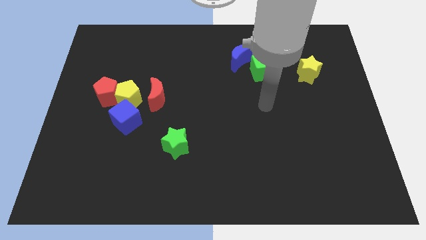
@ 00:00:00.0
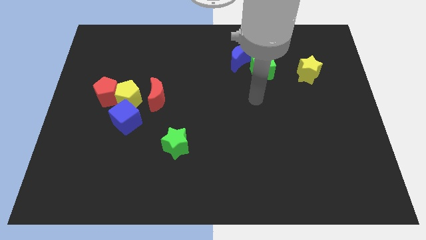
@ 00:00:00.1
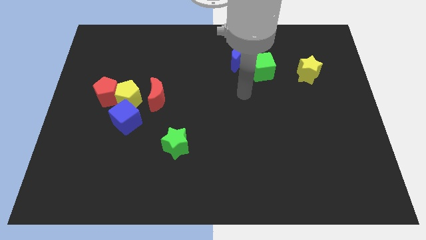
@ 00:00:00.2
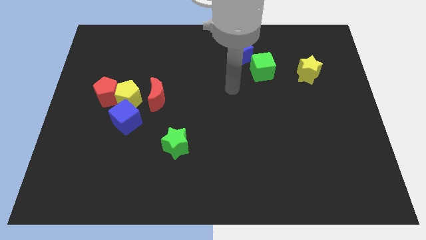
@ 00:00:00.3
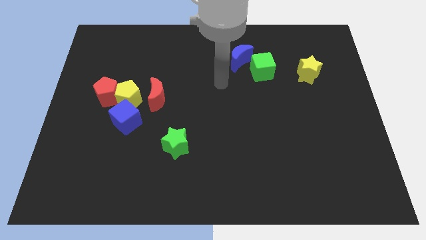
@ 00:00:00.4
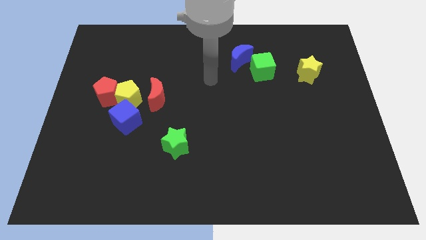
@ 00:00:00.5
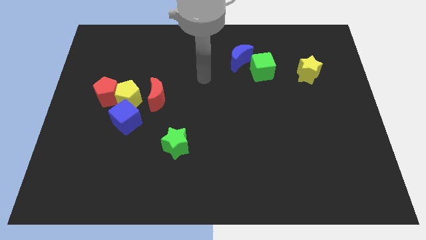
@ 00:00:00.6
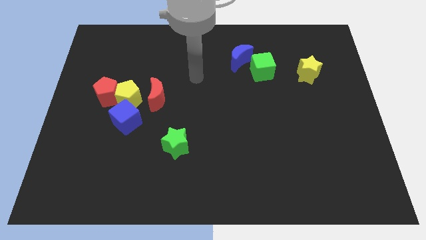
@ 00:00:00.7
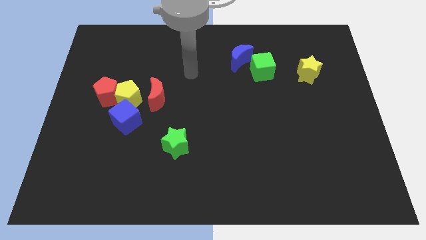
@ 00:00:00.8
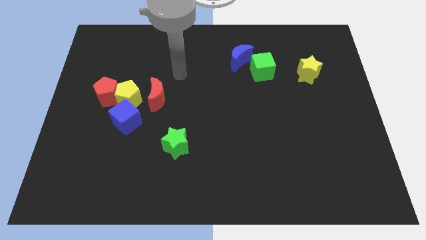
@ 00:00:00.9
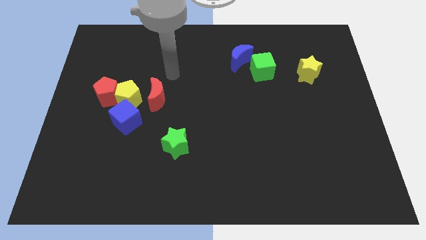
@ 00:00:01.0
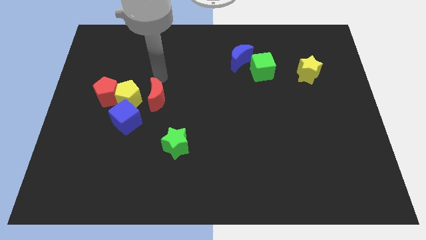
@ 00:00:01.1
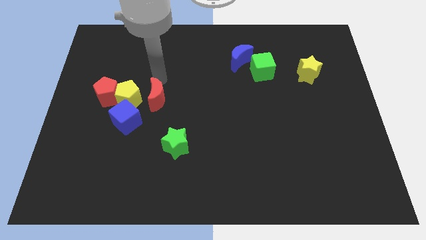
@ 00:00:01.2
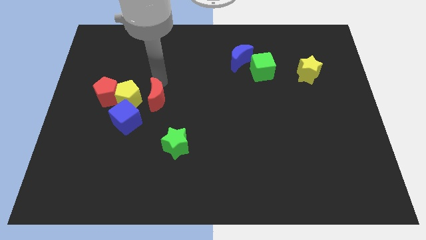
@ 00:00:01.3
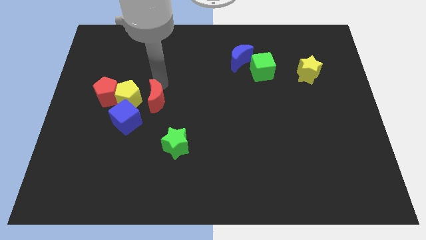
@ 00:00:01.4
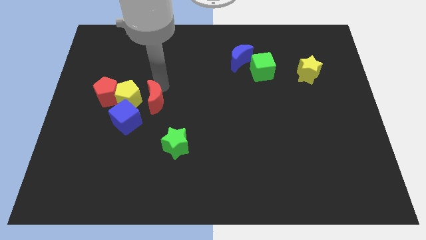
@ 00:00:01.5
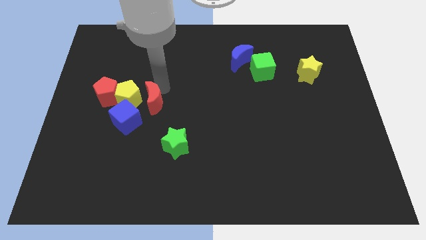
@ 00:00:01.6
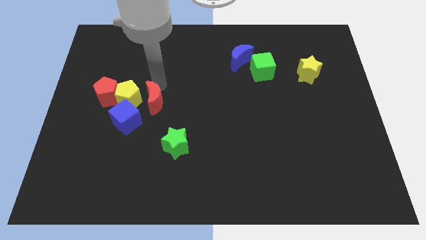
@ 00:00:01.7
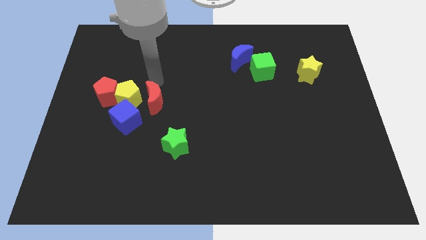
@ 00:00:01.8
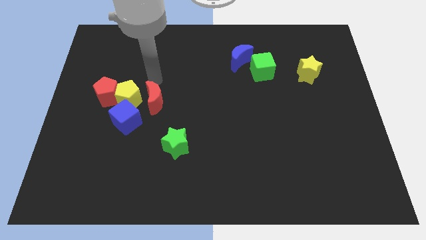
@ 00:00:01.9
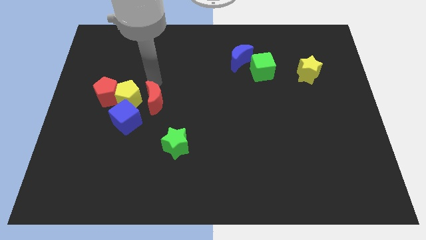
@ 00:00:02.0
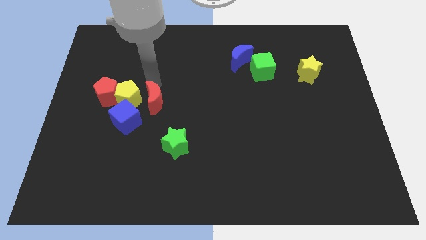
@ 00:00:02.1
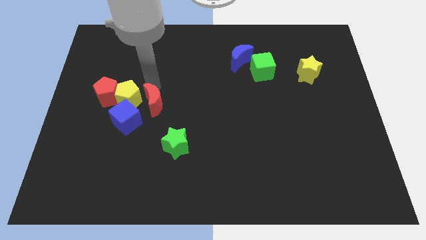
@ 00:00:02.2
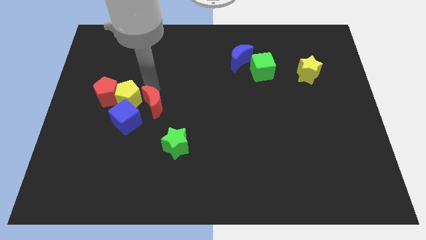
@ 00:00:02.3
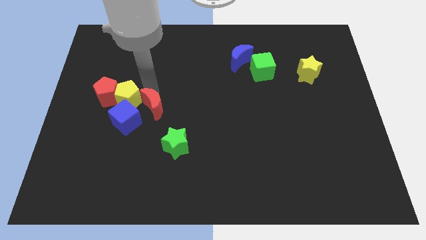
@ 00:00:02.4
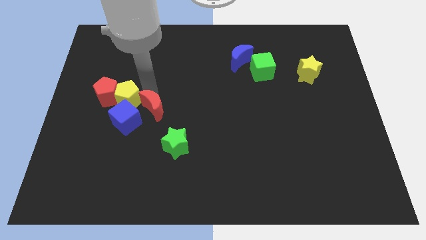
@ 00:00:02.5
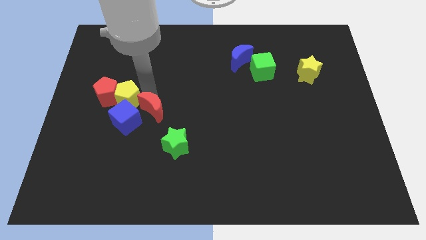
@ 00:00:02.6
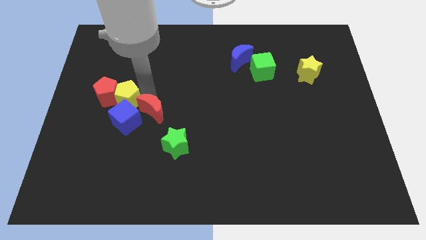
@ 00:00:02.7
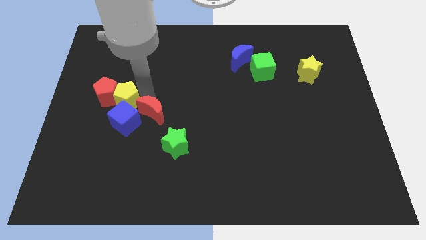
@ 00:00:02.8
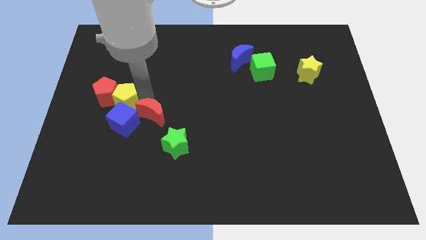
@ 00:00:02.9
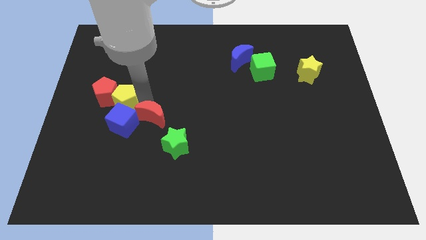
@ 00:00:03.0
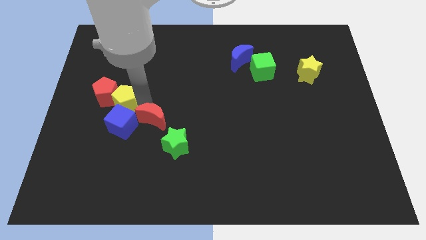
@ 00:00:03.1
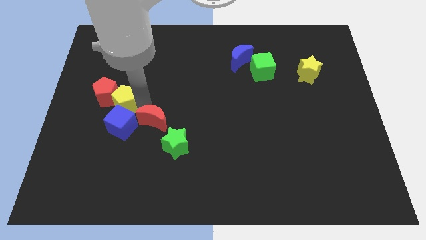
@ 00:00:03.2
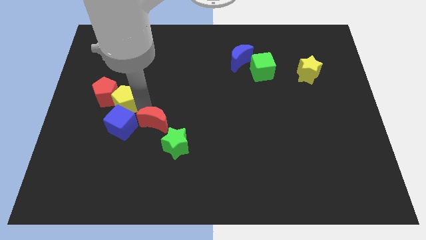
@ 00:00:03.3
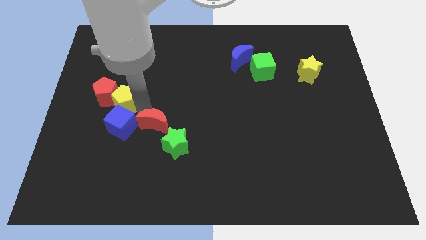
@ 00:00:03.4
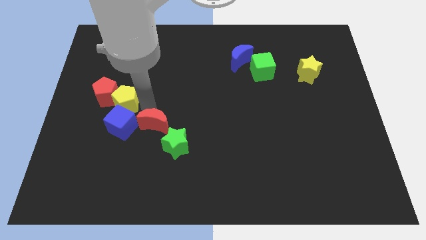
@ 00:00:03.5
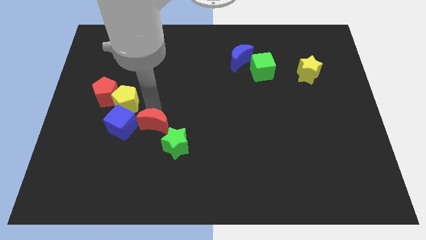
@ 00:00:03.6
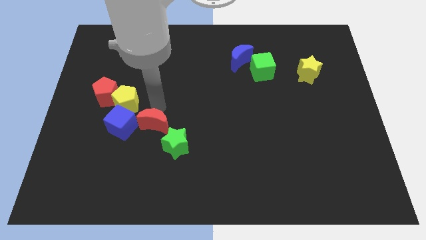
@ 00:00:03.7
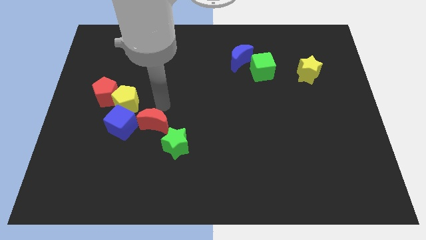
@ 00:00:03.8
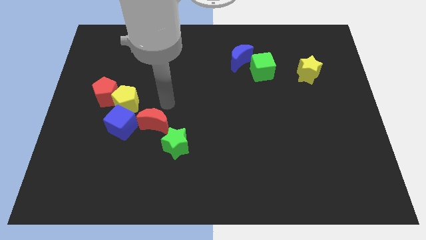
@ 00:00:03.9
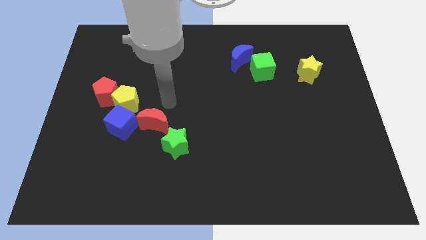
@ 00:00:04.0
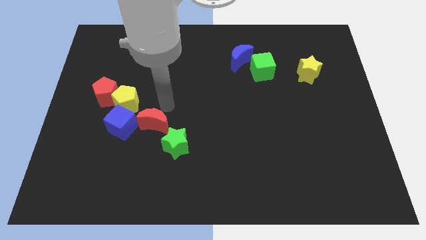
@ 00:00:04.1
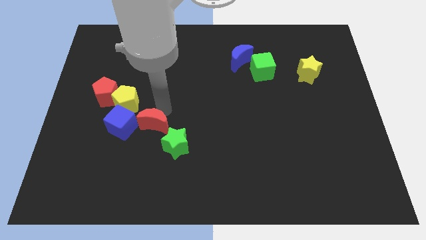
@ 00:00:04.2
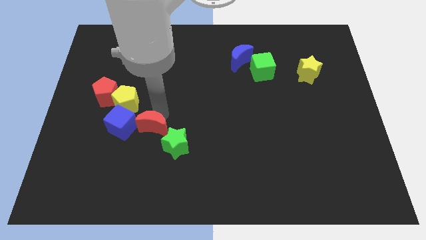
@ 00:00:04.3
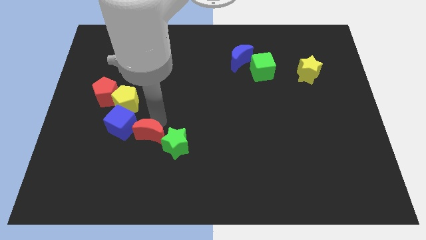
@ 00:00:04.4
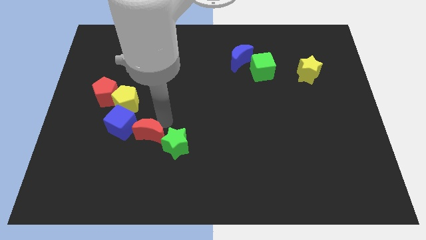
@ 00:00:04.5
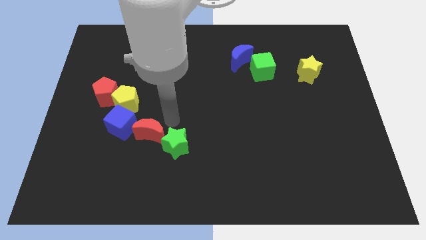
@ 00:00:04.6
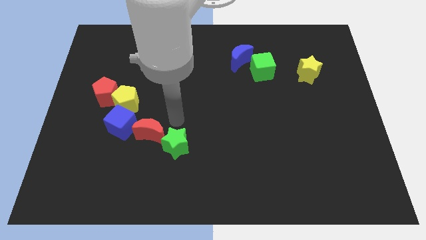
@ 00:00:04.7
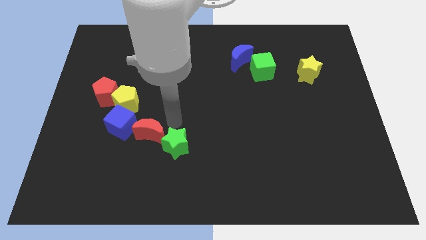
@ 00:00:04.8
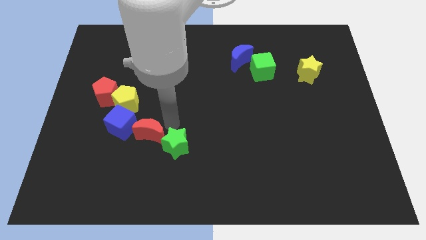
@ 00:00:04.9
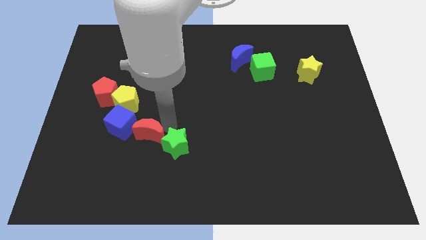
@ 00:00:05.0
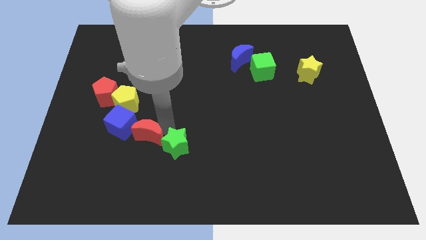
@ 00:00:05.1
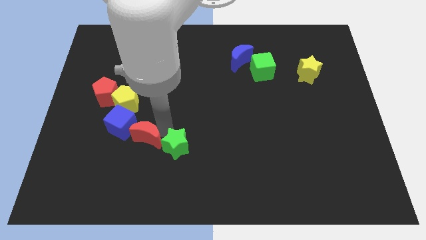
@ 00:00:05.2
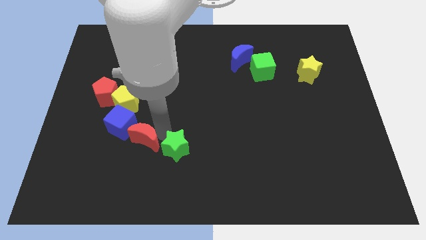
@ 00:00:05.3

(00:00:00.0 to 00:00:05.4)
slightly slide the red moon downwards and then to the left

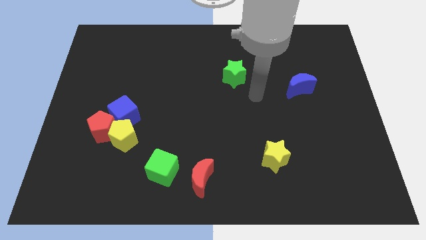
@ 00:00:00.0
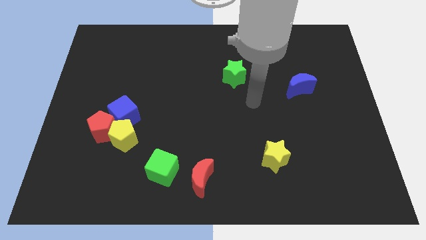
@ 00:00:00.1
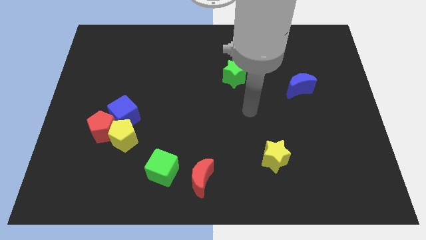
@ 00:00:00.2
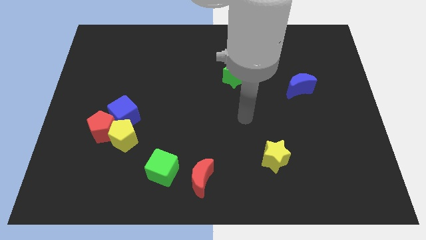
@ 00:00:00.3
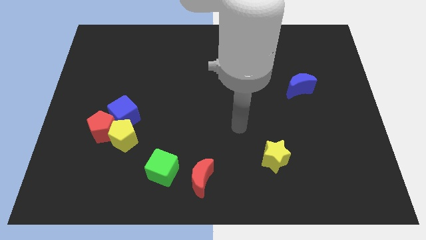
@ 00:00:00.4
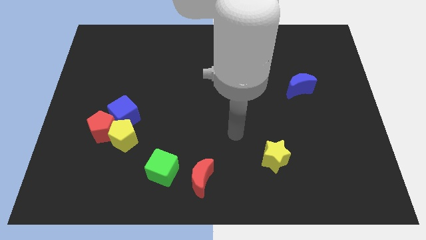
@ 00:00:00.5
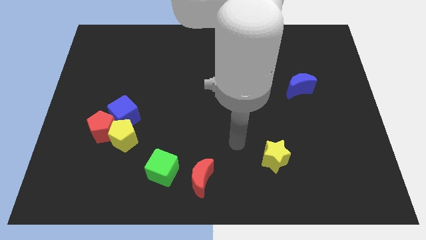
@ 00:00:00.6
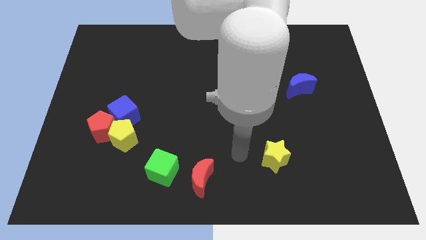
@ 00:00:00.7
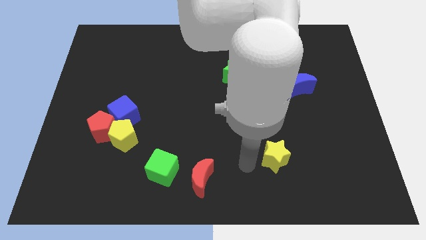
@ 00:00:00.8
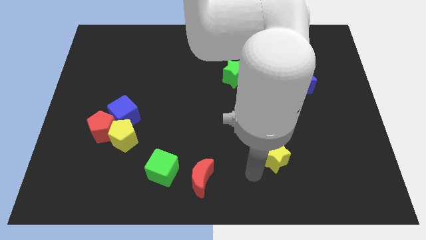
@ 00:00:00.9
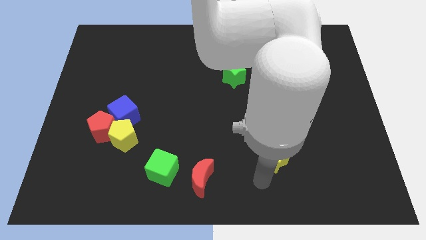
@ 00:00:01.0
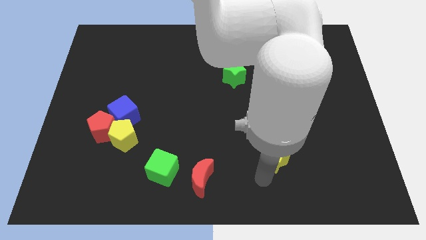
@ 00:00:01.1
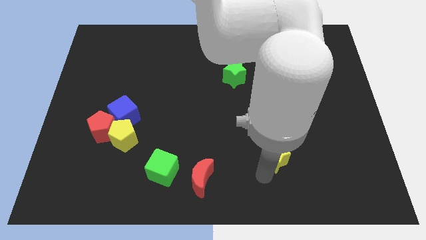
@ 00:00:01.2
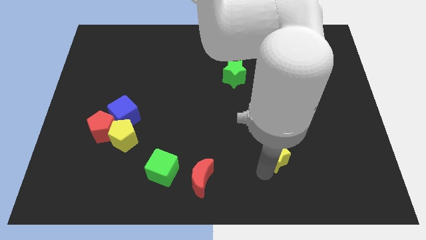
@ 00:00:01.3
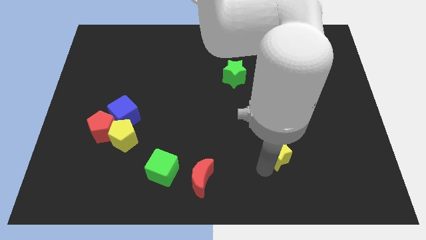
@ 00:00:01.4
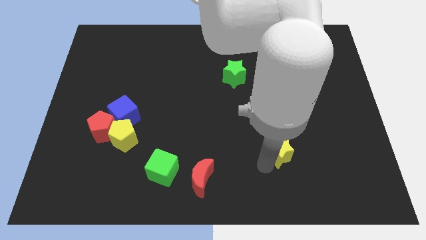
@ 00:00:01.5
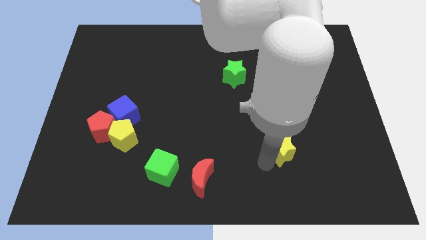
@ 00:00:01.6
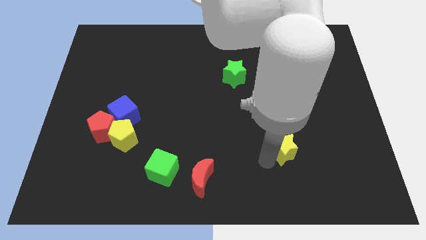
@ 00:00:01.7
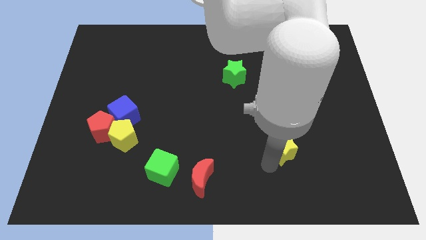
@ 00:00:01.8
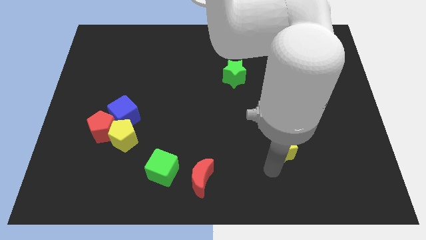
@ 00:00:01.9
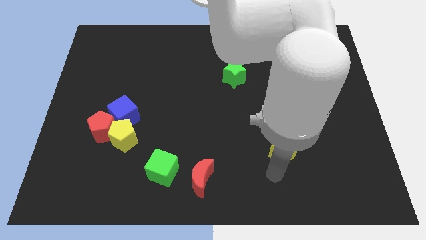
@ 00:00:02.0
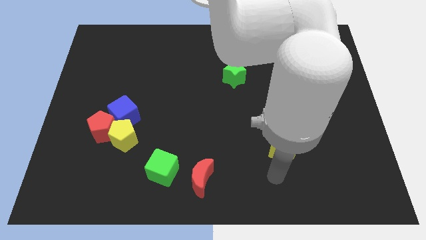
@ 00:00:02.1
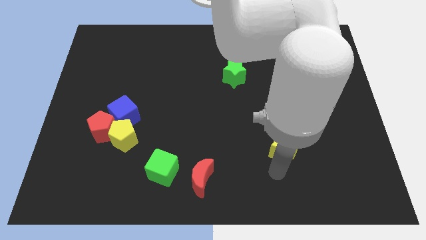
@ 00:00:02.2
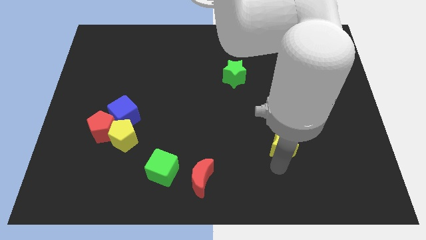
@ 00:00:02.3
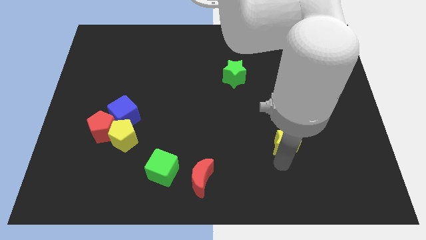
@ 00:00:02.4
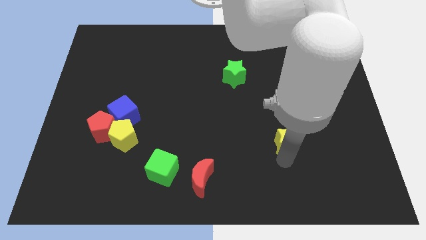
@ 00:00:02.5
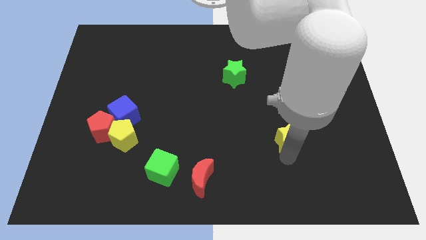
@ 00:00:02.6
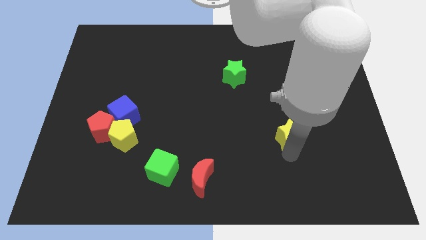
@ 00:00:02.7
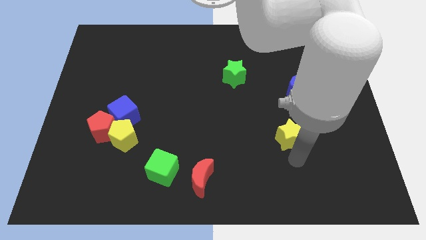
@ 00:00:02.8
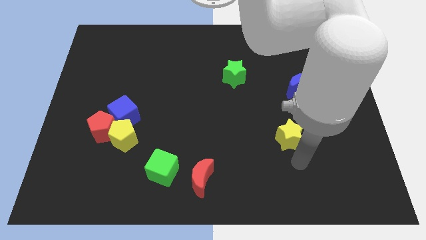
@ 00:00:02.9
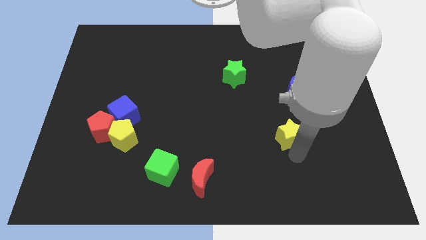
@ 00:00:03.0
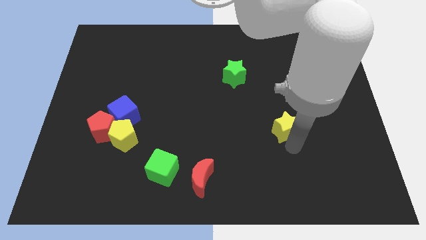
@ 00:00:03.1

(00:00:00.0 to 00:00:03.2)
slide the yellow star somewhat up
